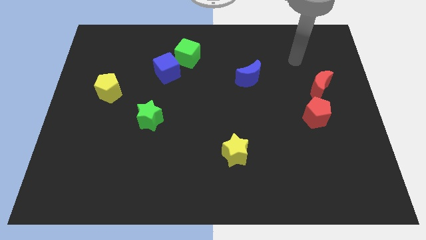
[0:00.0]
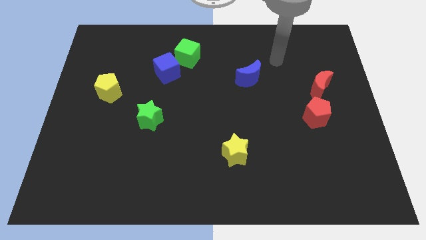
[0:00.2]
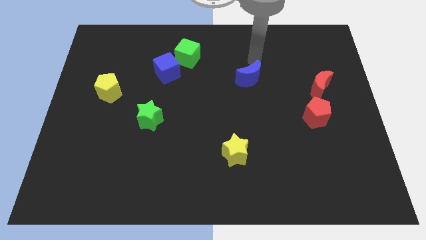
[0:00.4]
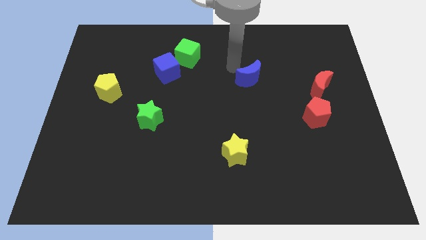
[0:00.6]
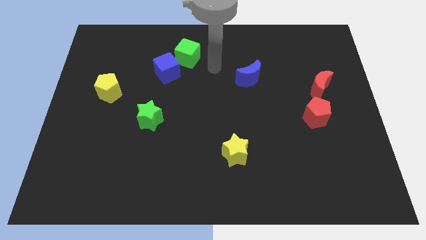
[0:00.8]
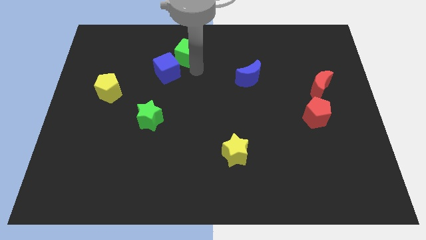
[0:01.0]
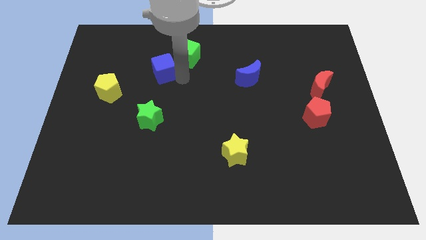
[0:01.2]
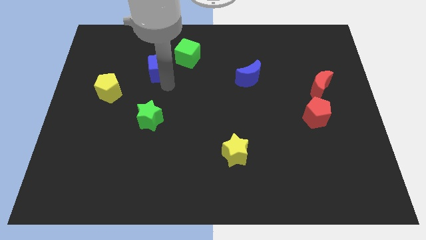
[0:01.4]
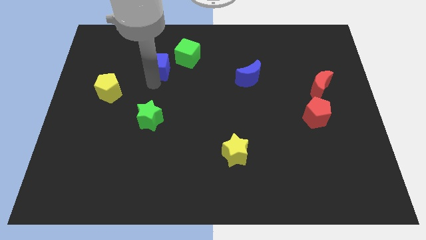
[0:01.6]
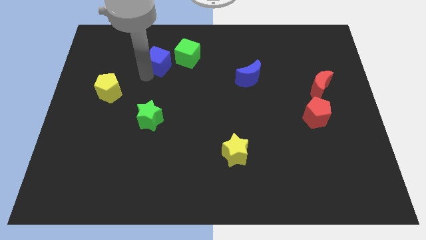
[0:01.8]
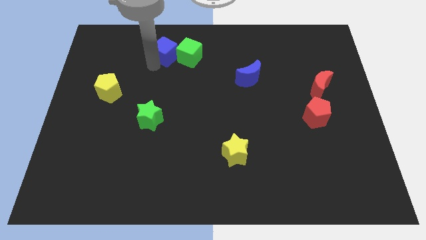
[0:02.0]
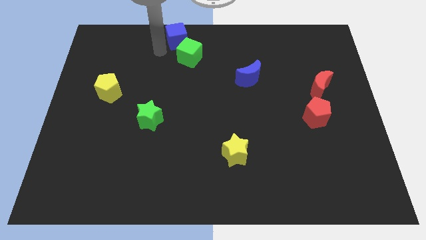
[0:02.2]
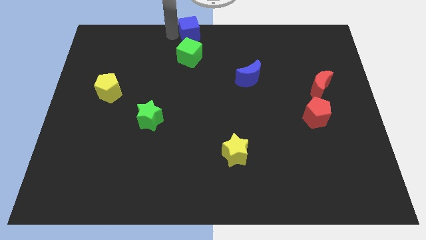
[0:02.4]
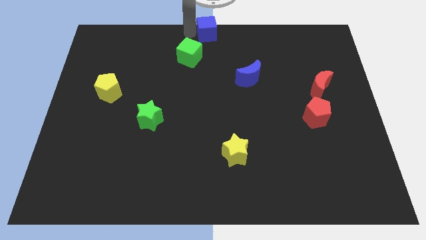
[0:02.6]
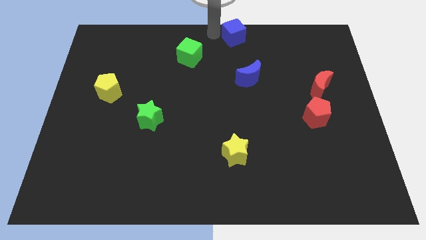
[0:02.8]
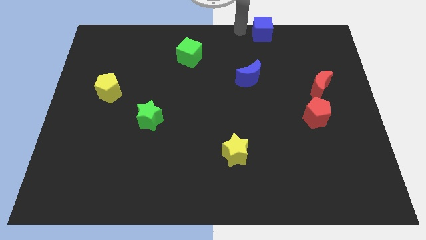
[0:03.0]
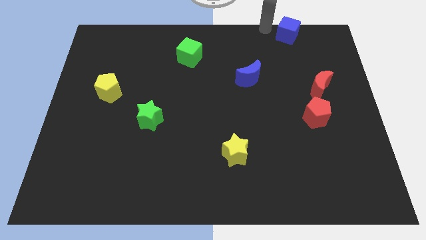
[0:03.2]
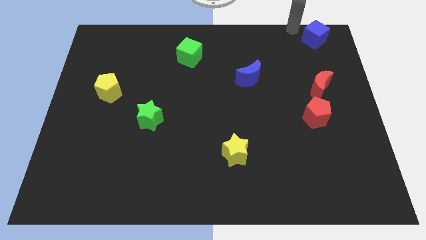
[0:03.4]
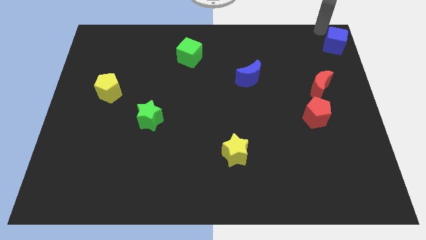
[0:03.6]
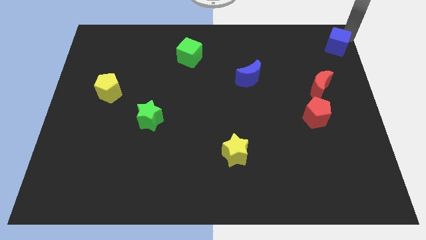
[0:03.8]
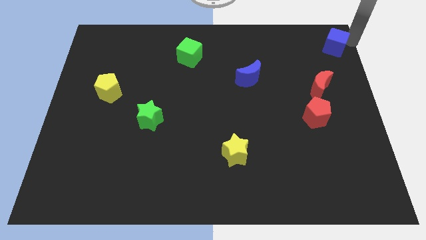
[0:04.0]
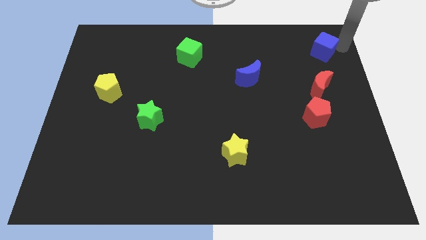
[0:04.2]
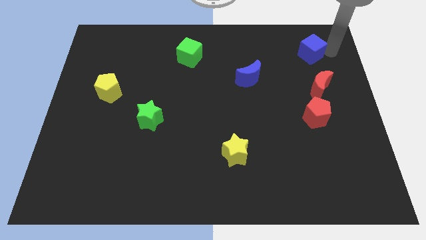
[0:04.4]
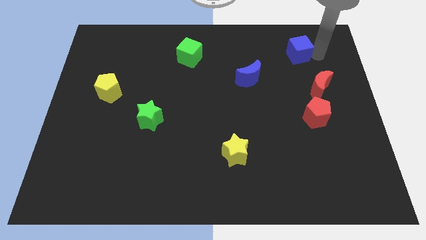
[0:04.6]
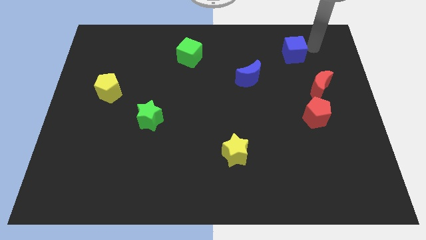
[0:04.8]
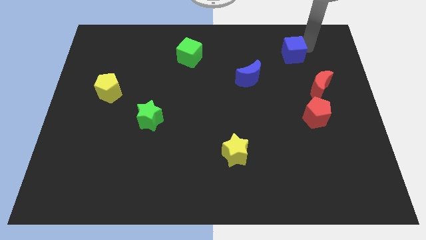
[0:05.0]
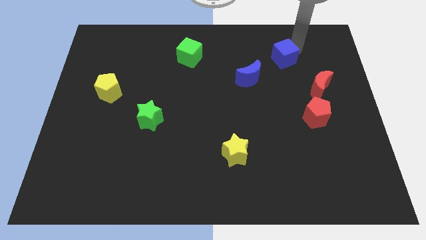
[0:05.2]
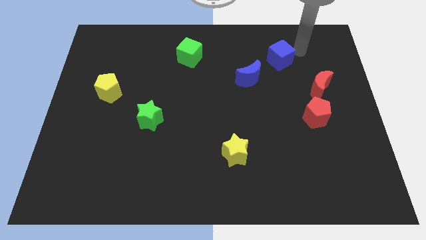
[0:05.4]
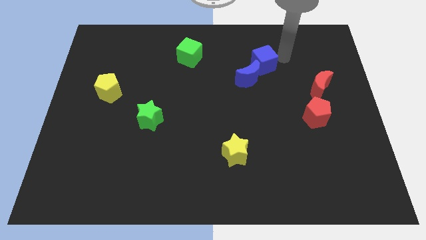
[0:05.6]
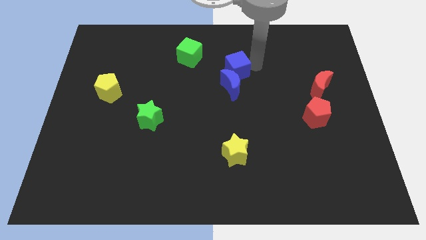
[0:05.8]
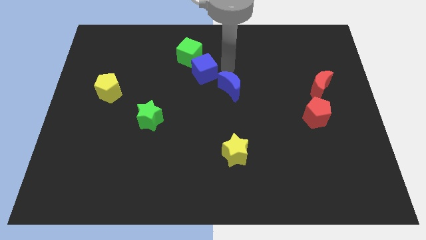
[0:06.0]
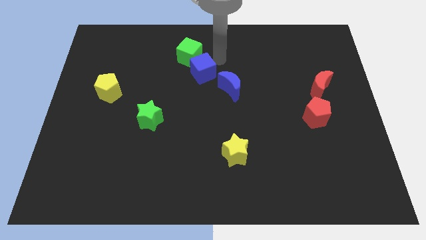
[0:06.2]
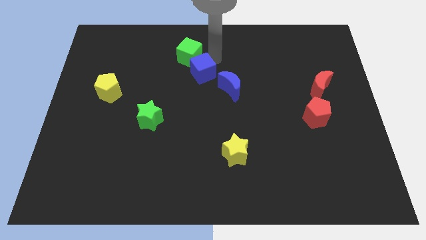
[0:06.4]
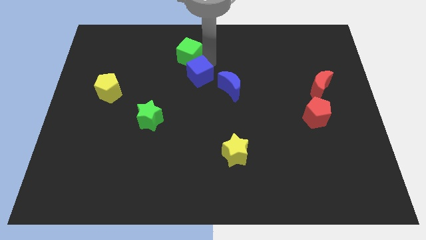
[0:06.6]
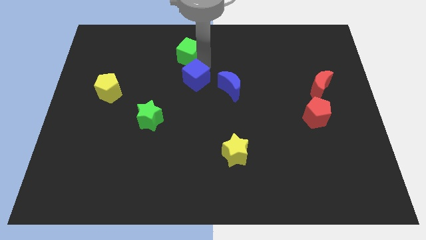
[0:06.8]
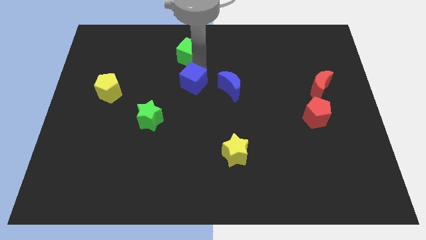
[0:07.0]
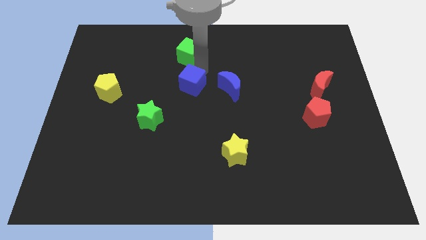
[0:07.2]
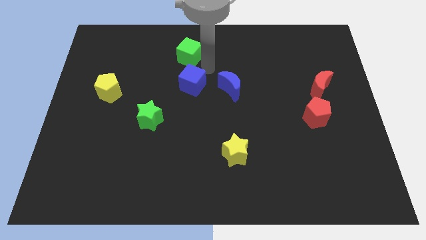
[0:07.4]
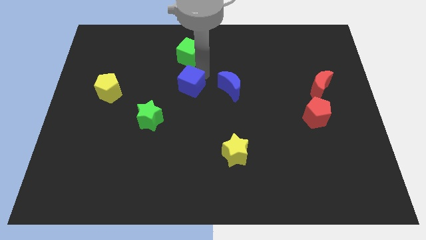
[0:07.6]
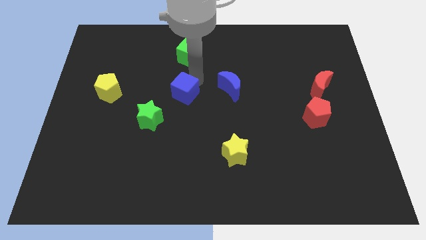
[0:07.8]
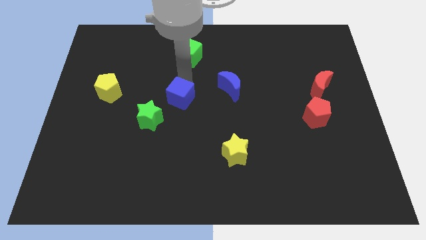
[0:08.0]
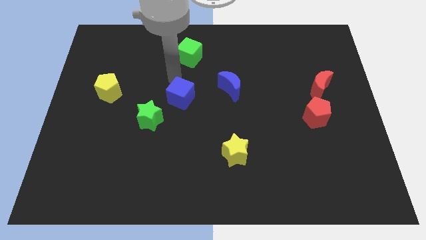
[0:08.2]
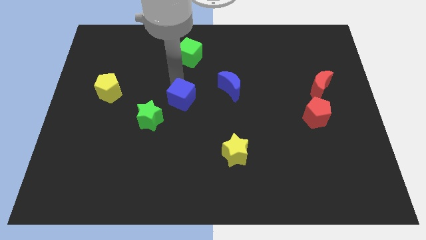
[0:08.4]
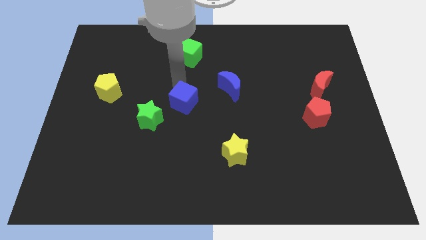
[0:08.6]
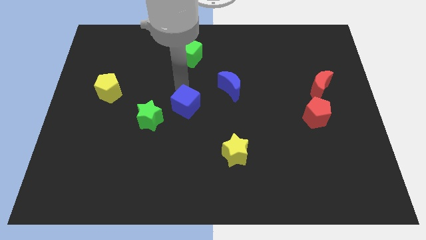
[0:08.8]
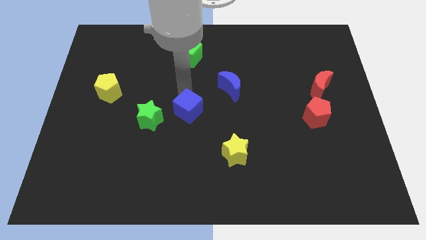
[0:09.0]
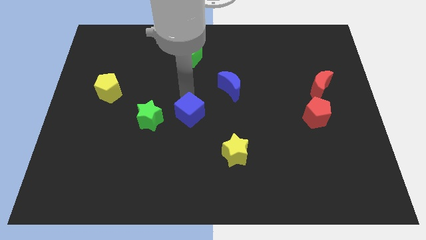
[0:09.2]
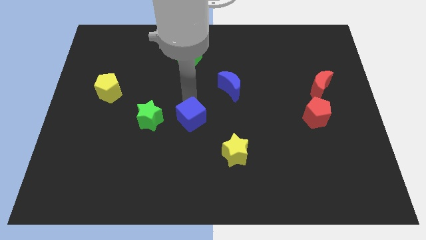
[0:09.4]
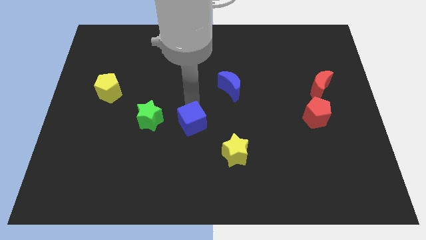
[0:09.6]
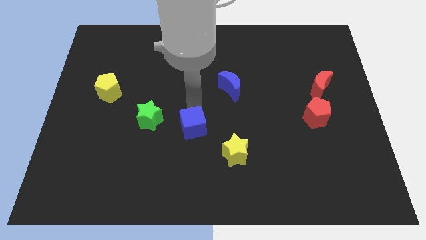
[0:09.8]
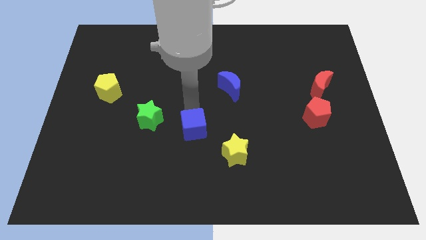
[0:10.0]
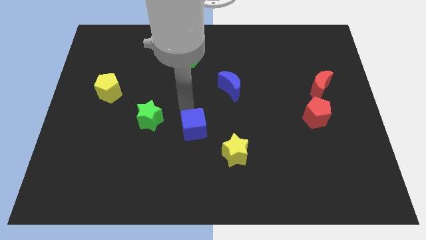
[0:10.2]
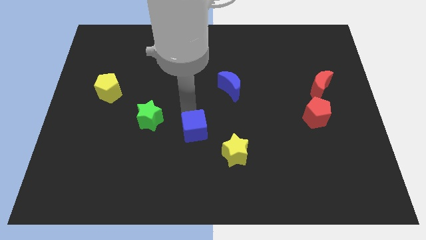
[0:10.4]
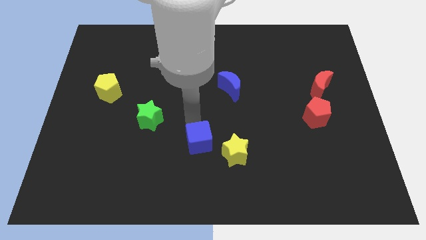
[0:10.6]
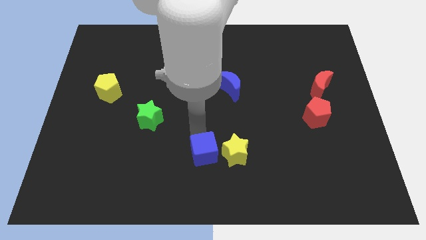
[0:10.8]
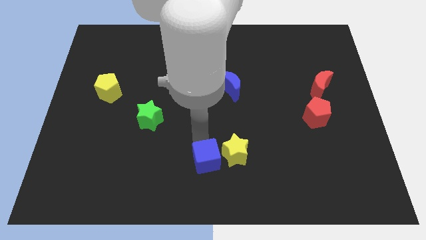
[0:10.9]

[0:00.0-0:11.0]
move the blue cube diagonally down and to the left of the yellow star

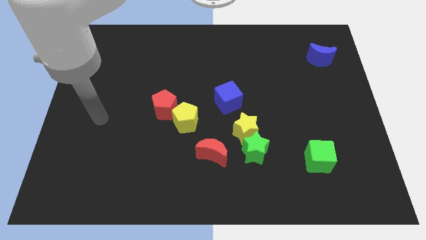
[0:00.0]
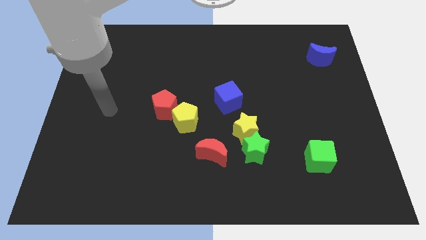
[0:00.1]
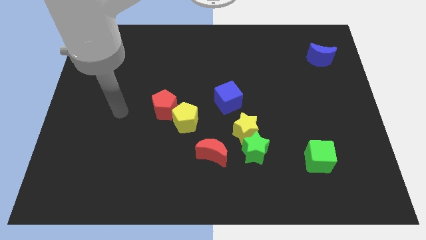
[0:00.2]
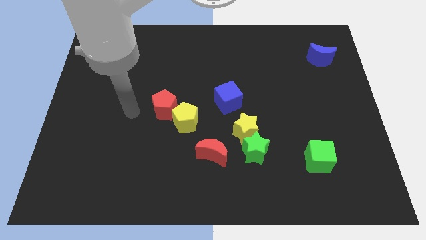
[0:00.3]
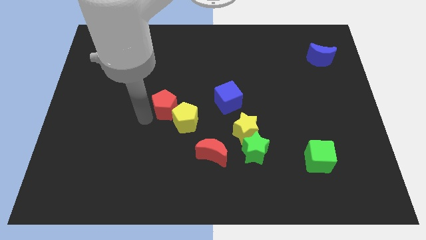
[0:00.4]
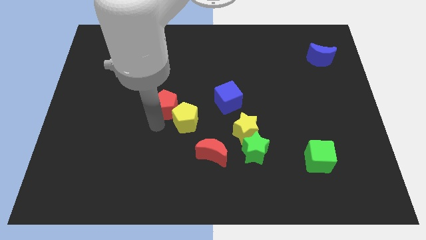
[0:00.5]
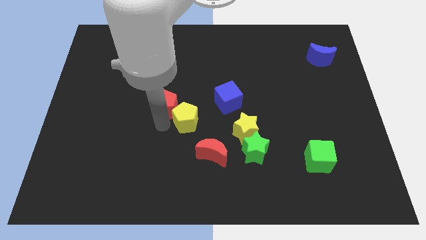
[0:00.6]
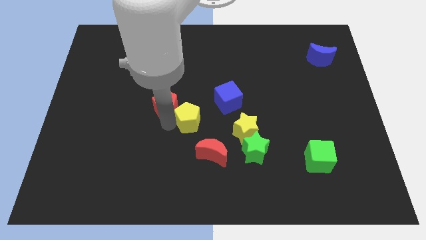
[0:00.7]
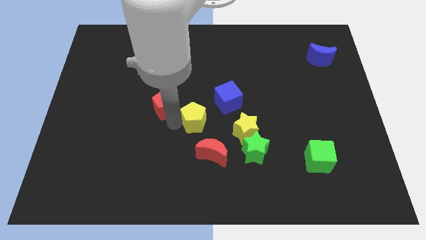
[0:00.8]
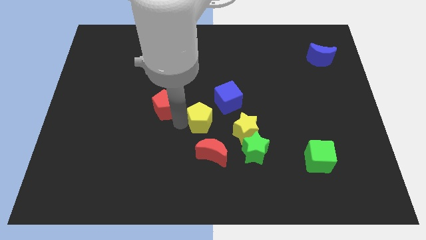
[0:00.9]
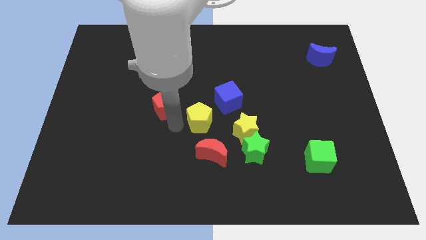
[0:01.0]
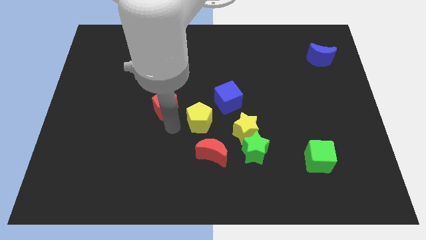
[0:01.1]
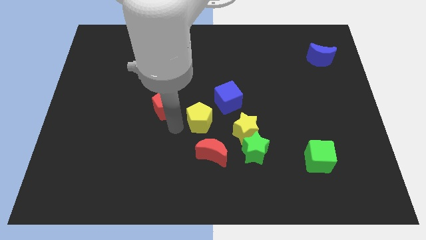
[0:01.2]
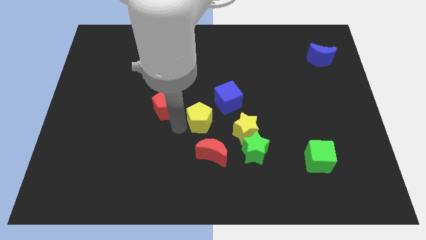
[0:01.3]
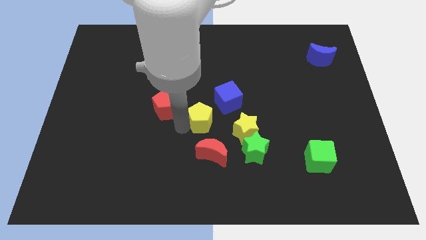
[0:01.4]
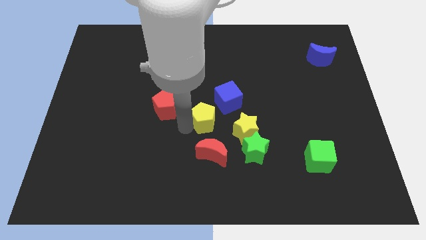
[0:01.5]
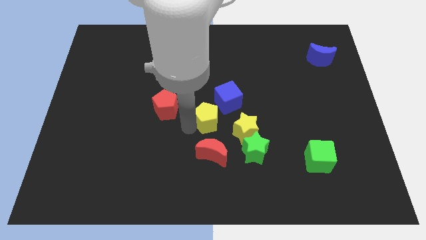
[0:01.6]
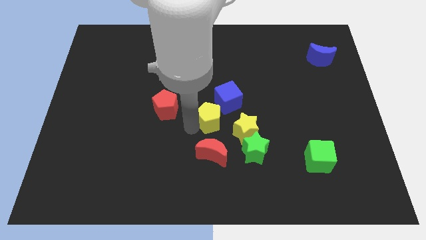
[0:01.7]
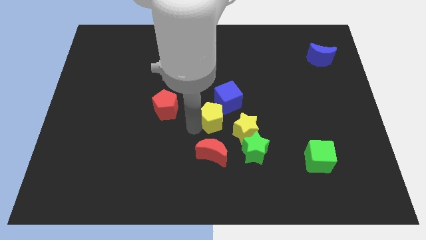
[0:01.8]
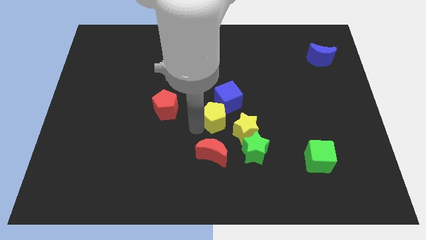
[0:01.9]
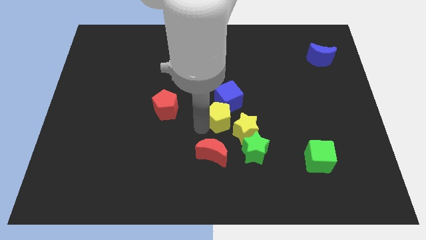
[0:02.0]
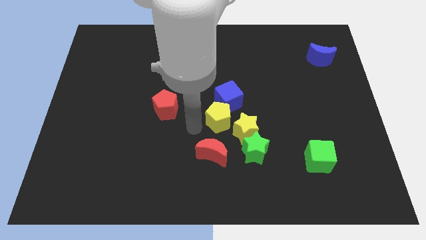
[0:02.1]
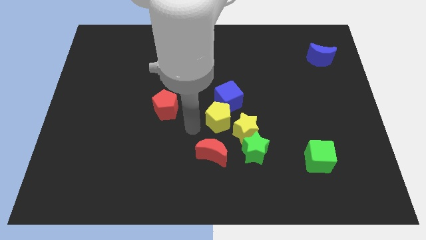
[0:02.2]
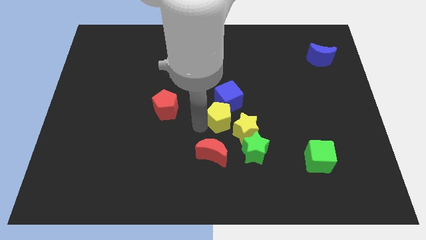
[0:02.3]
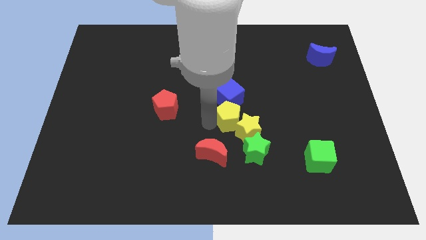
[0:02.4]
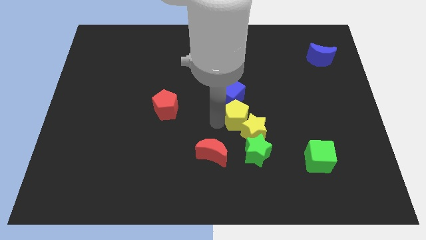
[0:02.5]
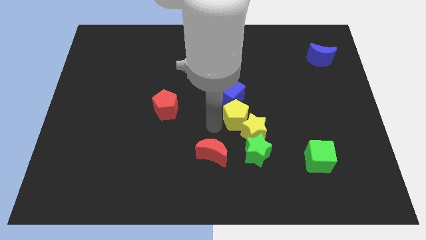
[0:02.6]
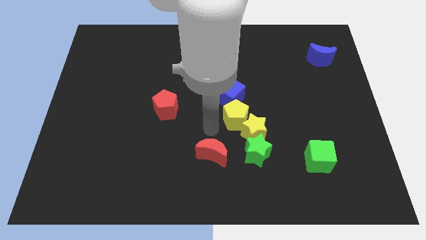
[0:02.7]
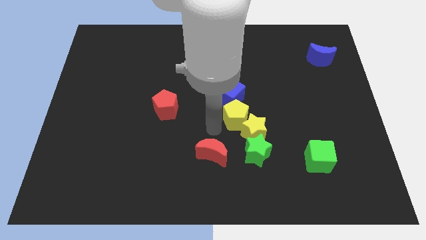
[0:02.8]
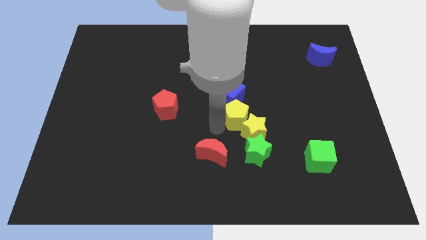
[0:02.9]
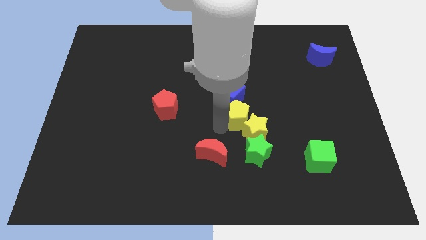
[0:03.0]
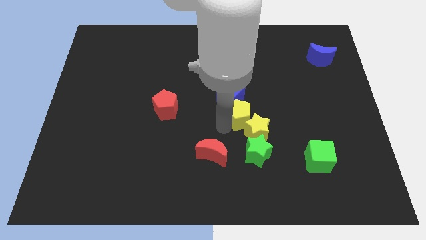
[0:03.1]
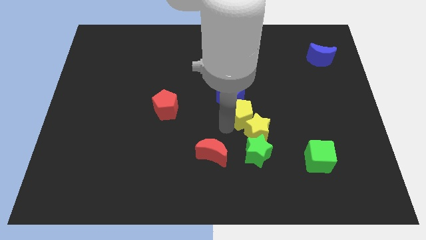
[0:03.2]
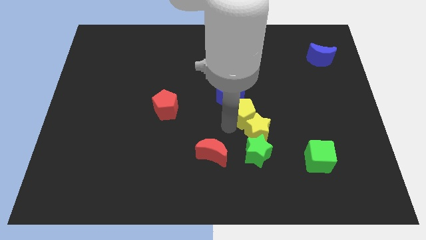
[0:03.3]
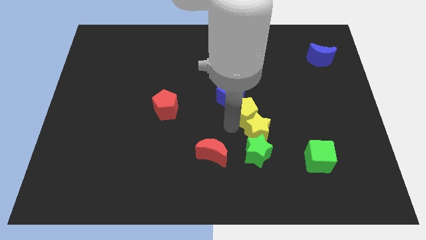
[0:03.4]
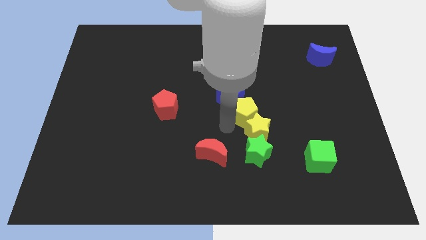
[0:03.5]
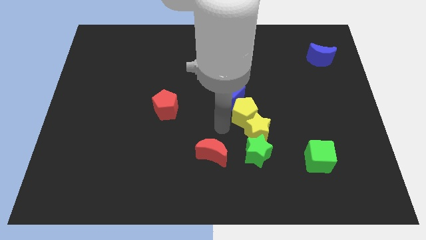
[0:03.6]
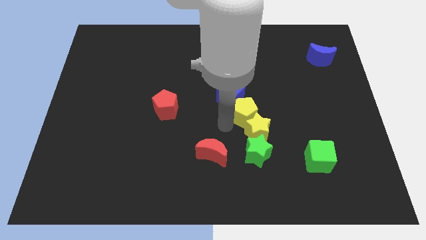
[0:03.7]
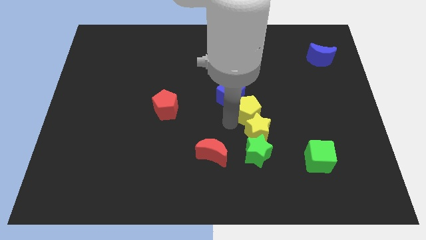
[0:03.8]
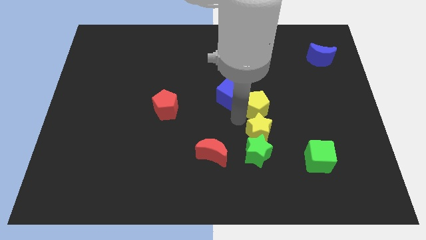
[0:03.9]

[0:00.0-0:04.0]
push the yellow pentagon just right of the blue cube
